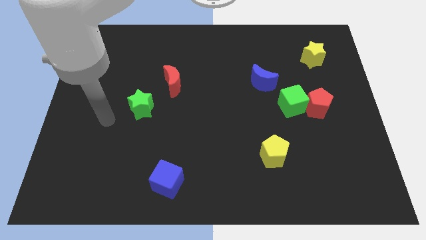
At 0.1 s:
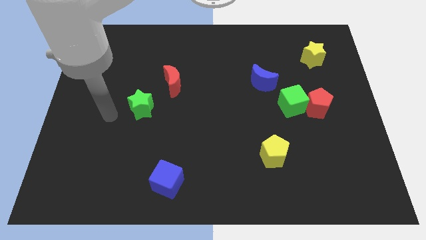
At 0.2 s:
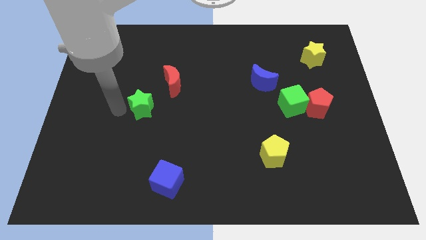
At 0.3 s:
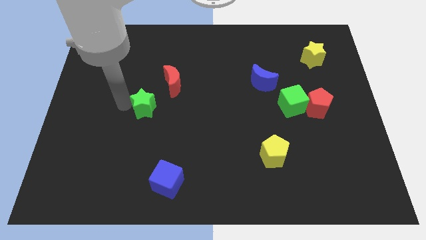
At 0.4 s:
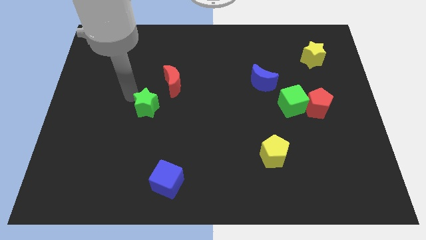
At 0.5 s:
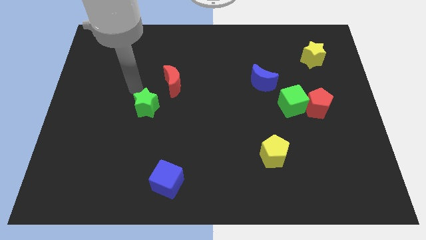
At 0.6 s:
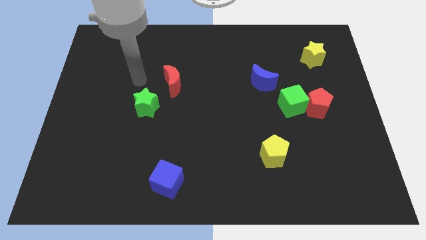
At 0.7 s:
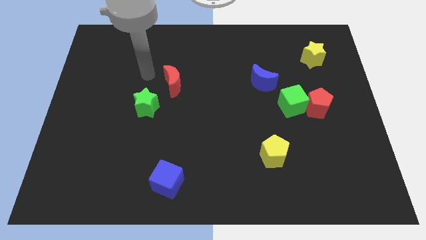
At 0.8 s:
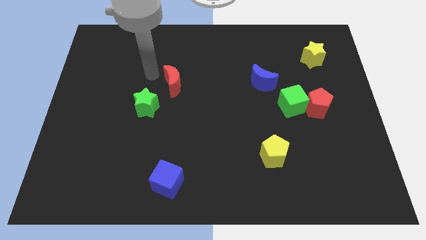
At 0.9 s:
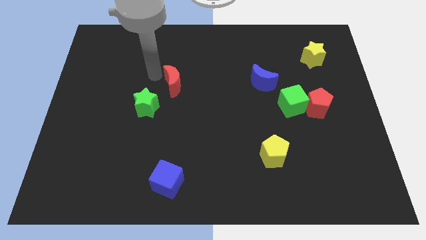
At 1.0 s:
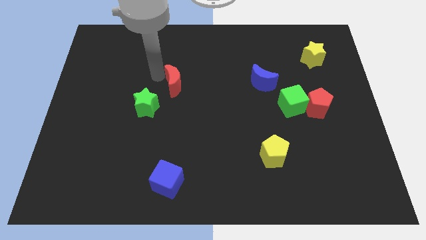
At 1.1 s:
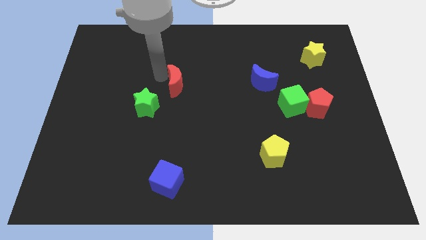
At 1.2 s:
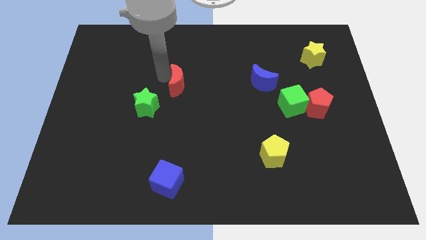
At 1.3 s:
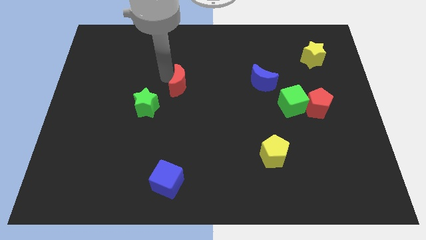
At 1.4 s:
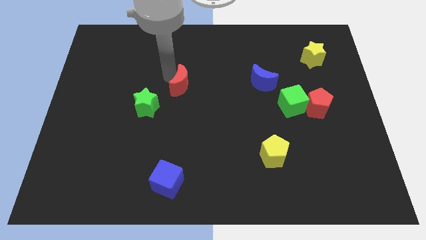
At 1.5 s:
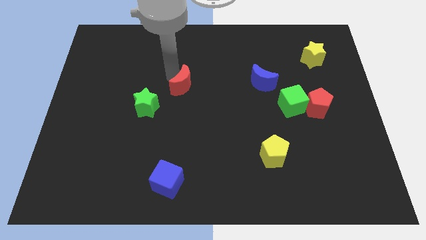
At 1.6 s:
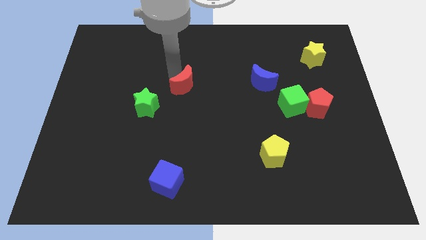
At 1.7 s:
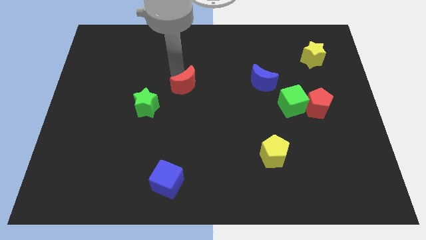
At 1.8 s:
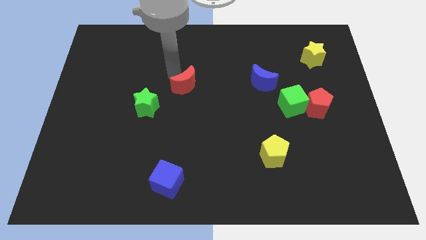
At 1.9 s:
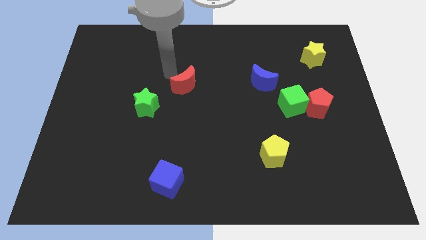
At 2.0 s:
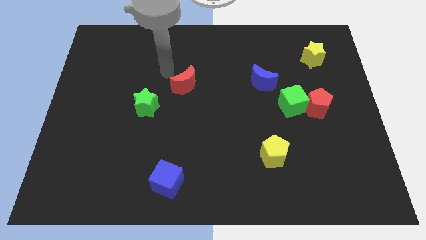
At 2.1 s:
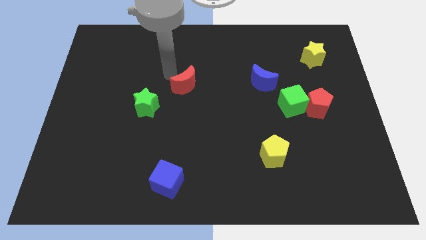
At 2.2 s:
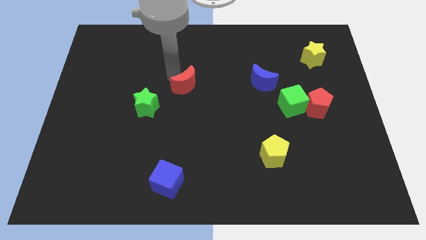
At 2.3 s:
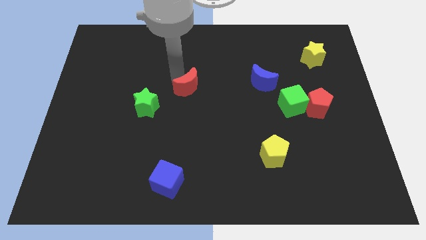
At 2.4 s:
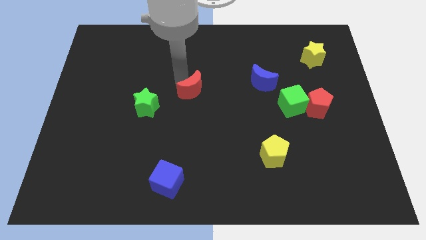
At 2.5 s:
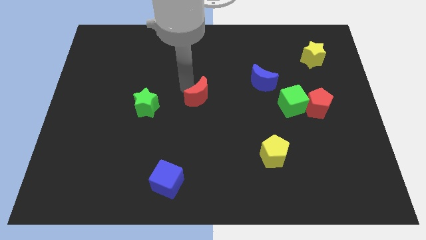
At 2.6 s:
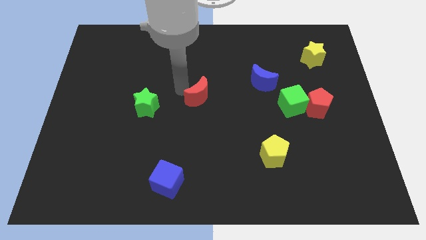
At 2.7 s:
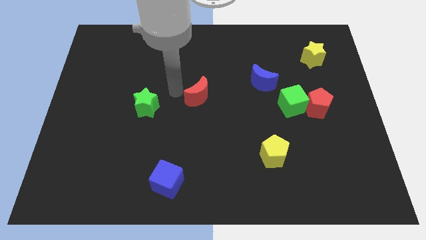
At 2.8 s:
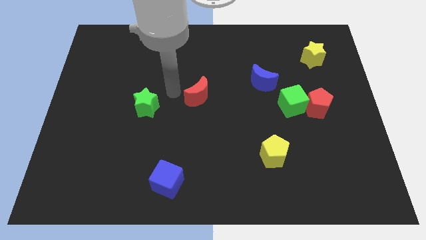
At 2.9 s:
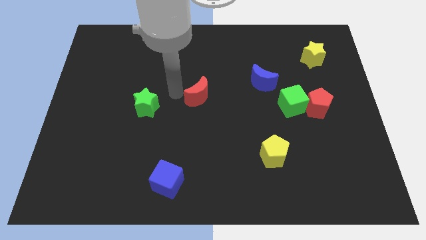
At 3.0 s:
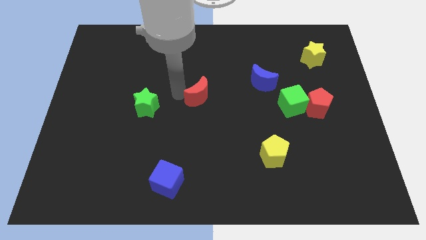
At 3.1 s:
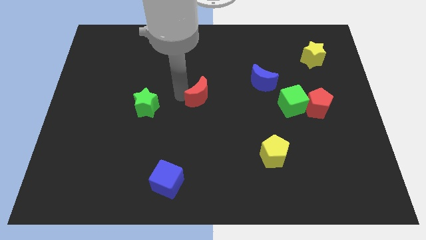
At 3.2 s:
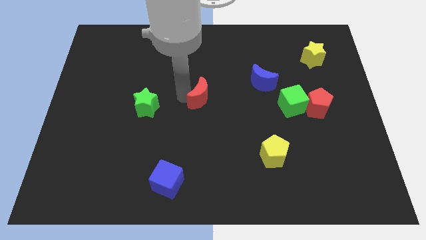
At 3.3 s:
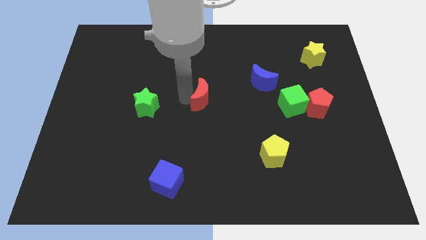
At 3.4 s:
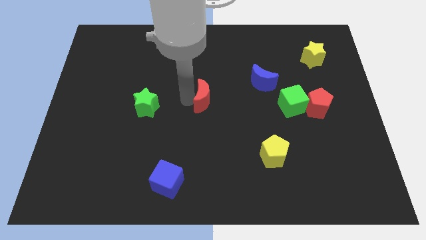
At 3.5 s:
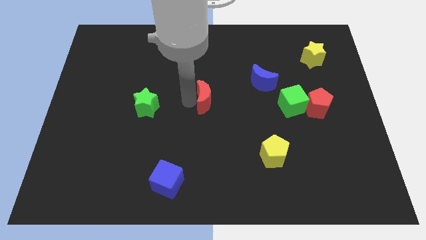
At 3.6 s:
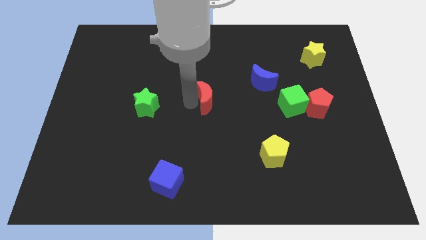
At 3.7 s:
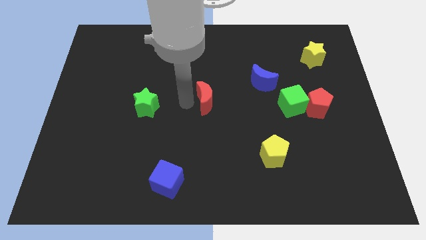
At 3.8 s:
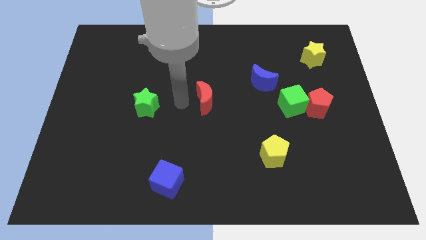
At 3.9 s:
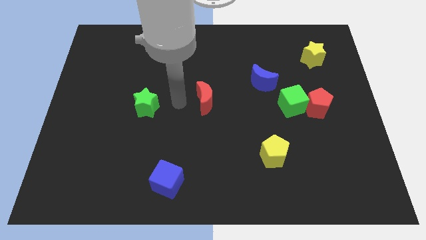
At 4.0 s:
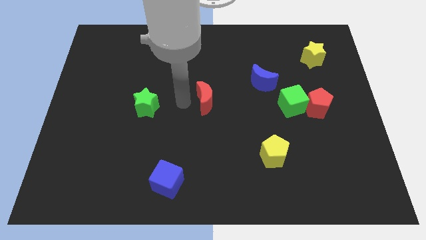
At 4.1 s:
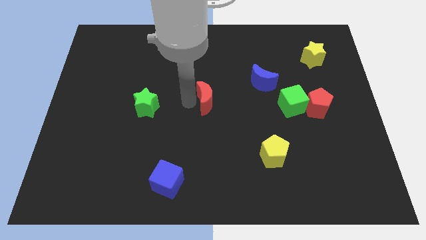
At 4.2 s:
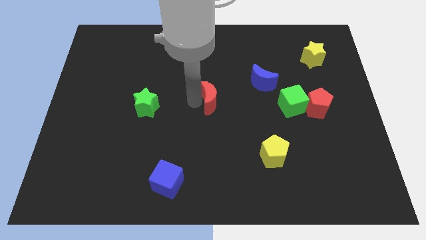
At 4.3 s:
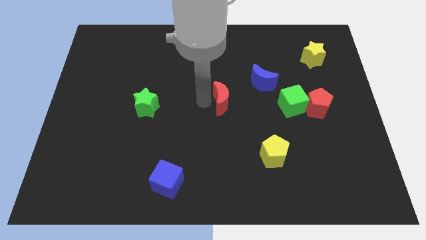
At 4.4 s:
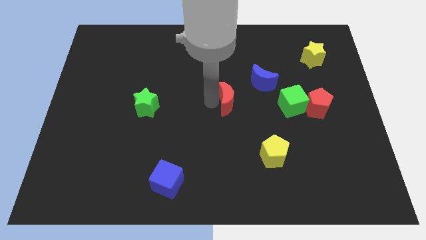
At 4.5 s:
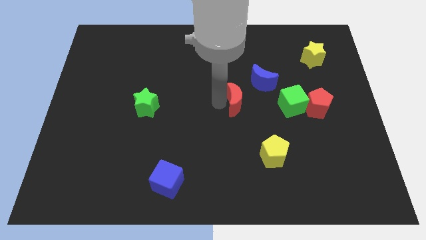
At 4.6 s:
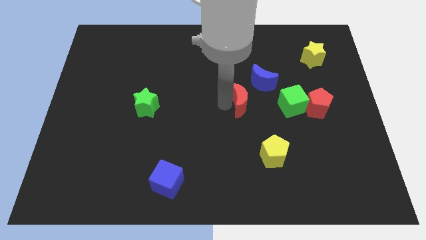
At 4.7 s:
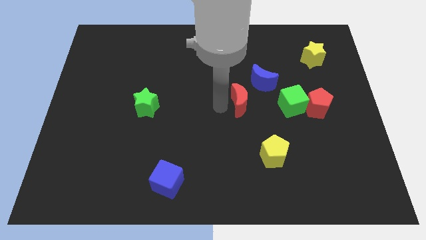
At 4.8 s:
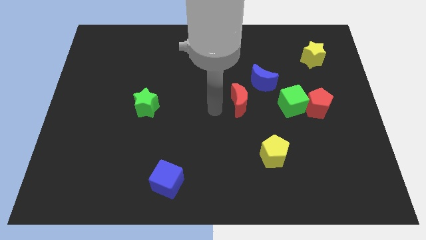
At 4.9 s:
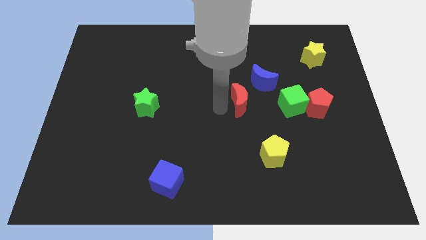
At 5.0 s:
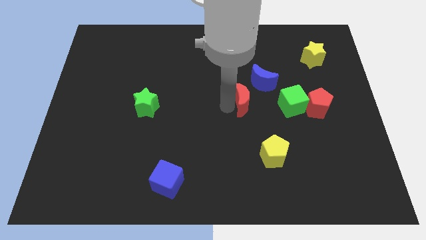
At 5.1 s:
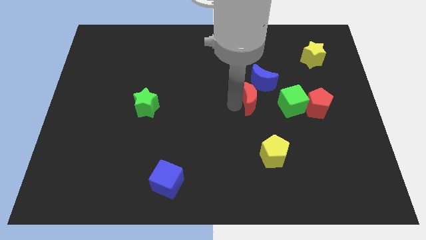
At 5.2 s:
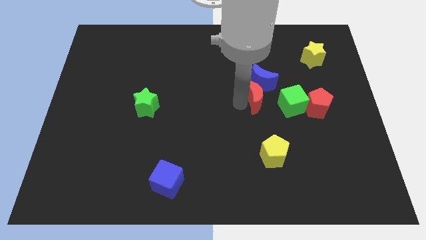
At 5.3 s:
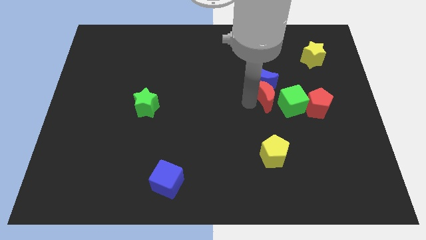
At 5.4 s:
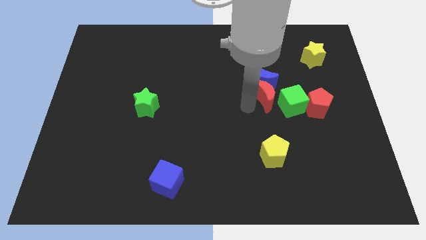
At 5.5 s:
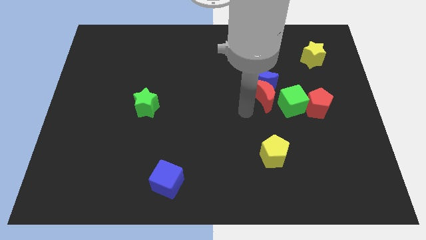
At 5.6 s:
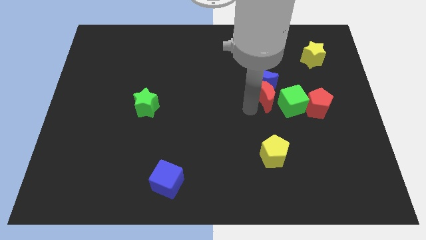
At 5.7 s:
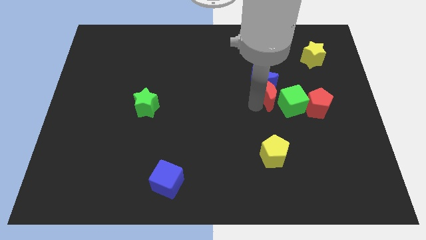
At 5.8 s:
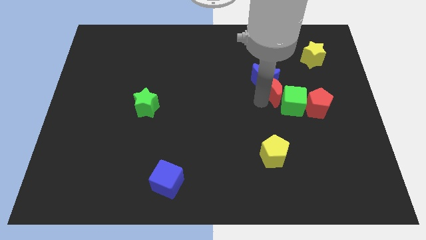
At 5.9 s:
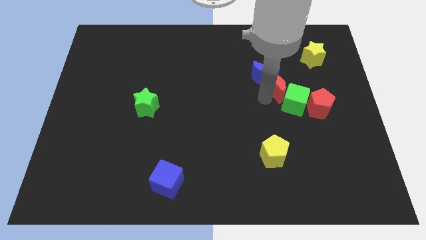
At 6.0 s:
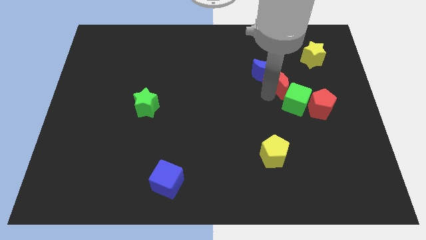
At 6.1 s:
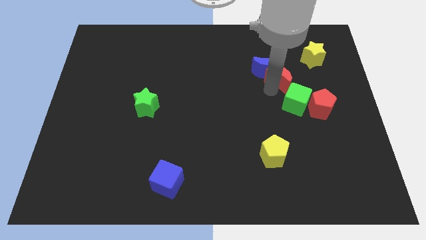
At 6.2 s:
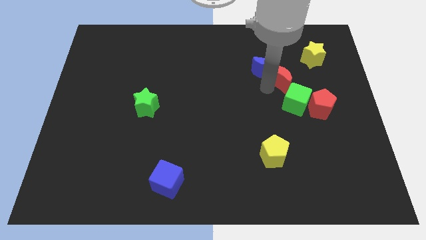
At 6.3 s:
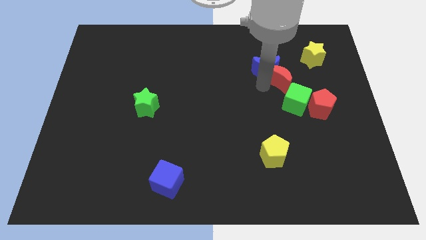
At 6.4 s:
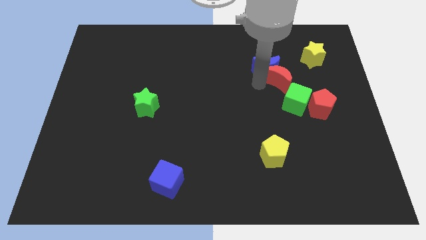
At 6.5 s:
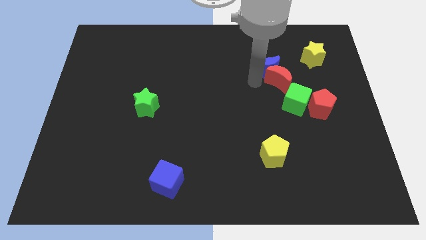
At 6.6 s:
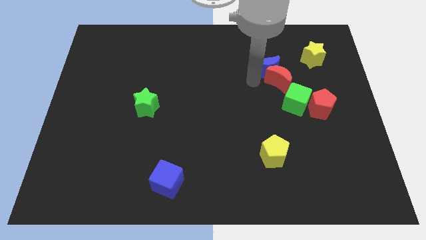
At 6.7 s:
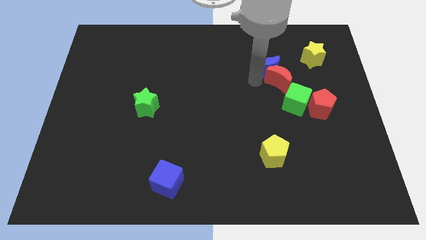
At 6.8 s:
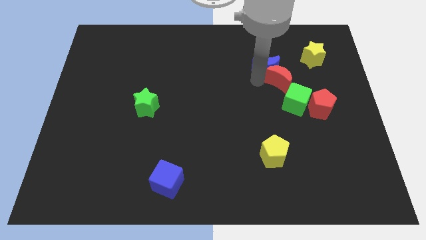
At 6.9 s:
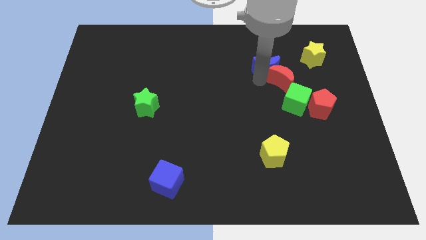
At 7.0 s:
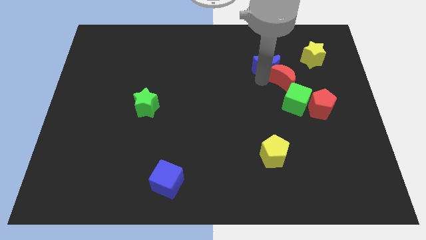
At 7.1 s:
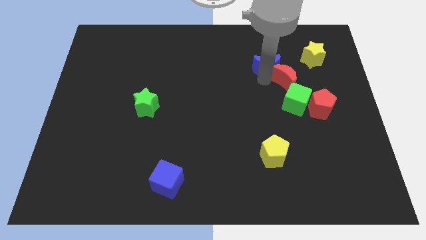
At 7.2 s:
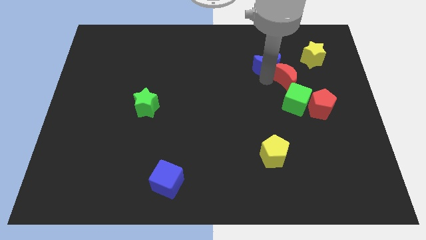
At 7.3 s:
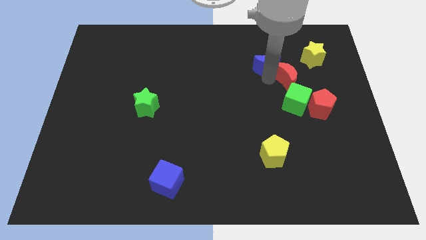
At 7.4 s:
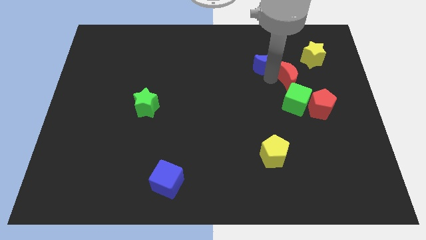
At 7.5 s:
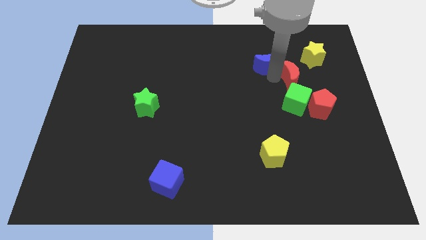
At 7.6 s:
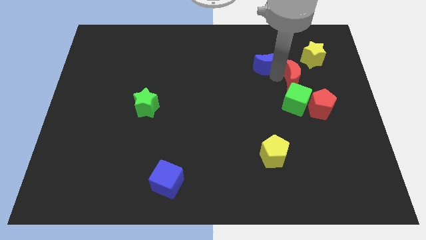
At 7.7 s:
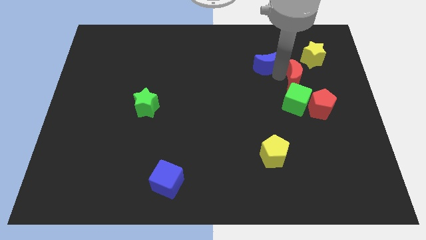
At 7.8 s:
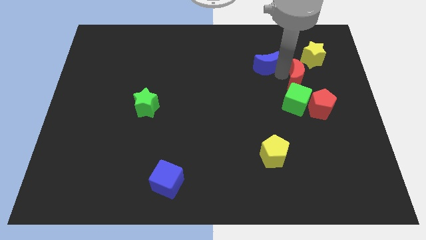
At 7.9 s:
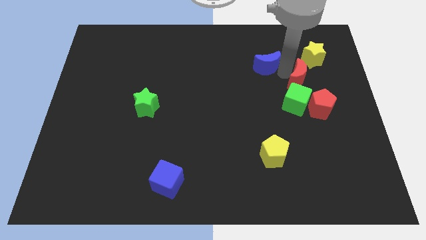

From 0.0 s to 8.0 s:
push the red moon to the bottom side of the yellow star

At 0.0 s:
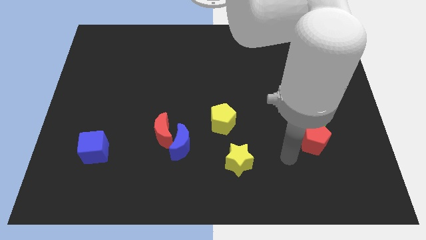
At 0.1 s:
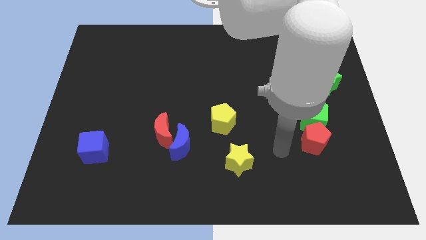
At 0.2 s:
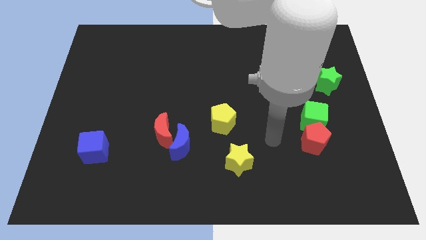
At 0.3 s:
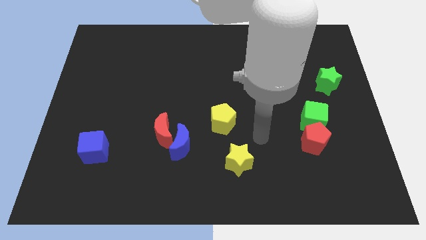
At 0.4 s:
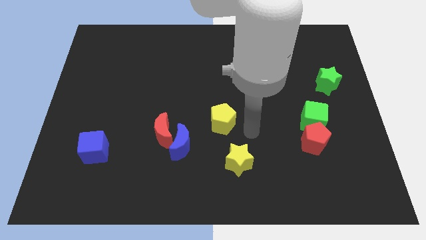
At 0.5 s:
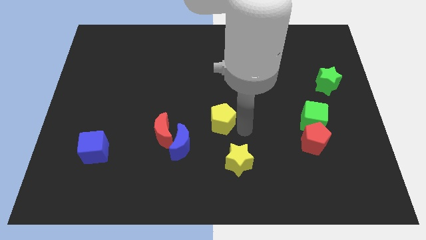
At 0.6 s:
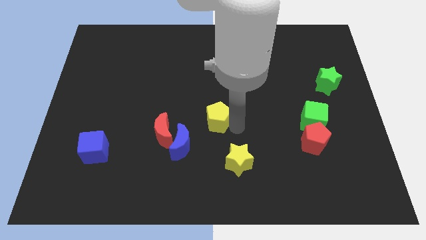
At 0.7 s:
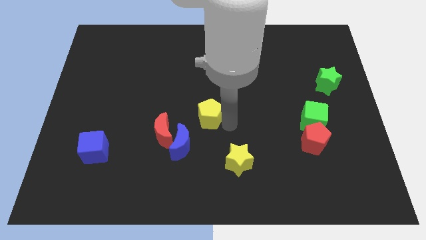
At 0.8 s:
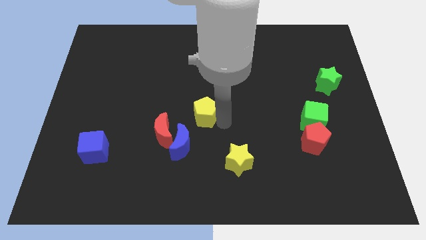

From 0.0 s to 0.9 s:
move the yellow pentagon to the top side of the blue moon
